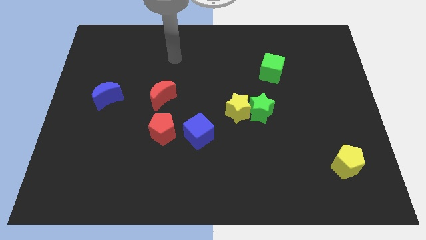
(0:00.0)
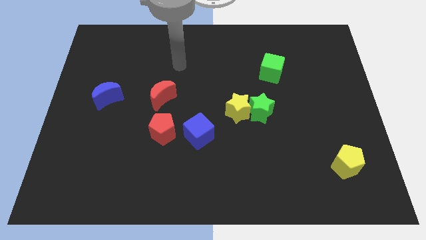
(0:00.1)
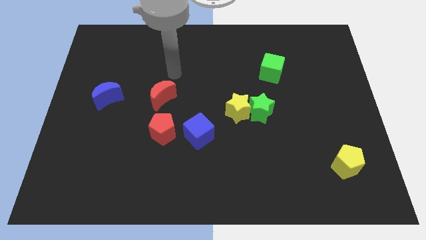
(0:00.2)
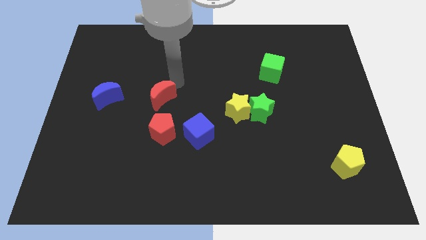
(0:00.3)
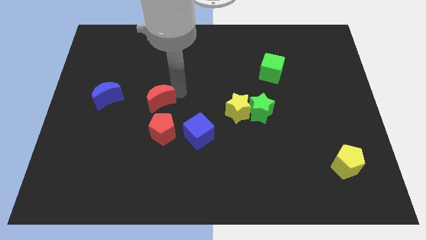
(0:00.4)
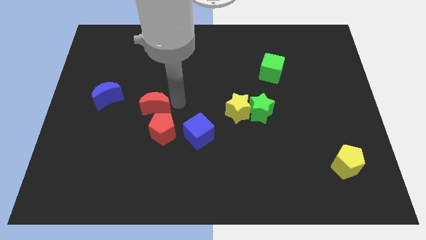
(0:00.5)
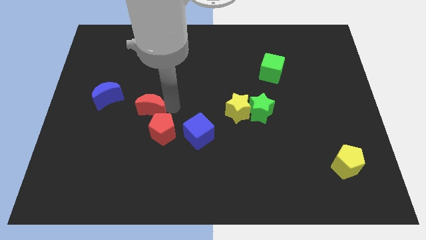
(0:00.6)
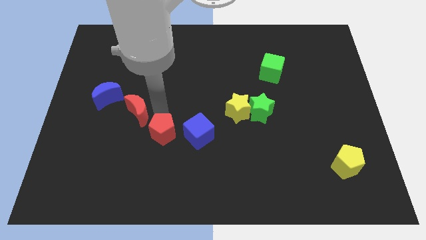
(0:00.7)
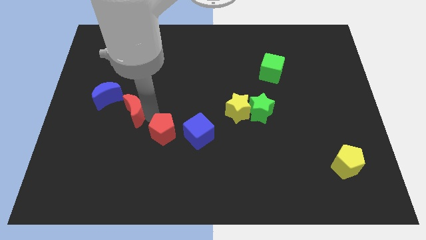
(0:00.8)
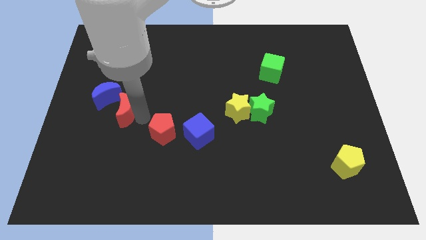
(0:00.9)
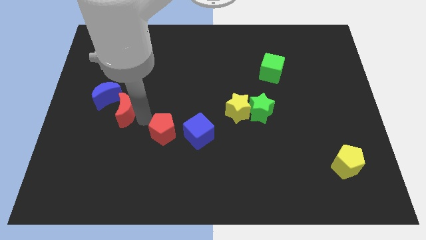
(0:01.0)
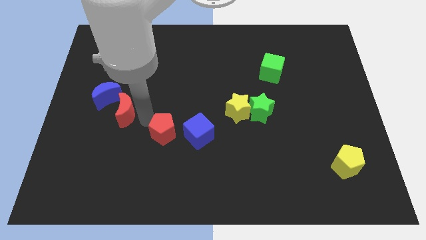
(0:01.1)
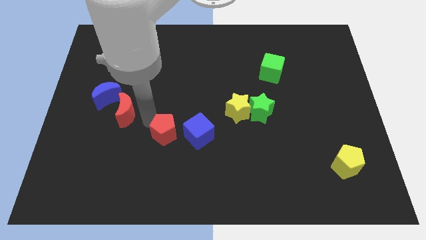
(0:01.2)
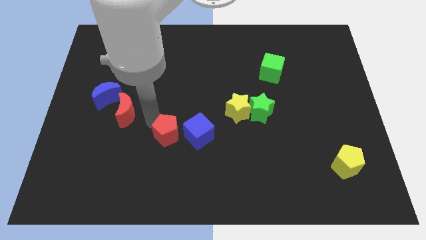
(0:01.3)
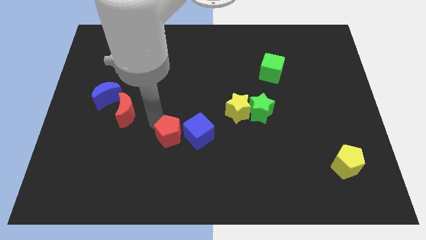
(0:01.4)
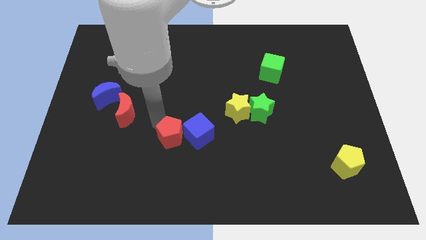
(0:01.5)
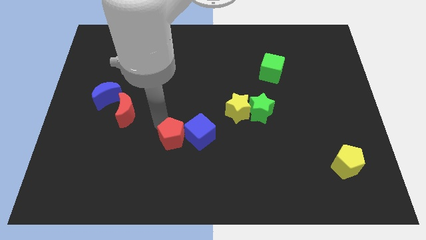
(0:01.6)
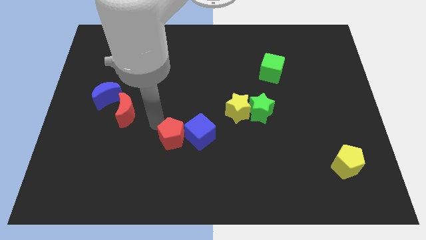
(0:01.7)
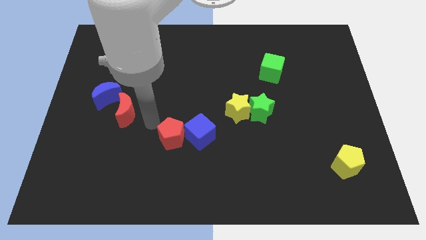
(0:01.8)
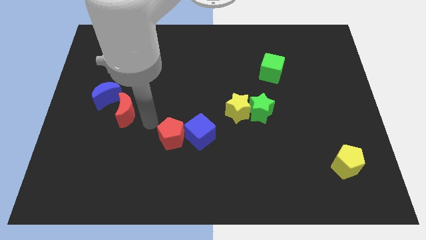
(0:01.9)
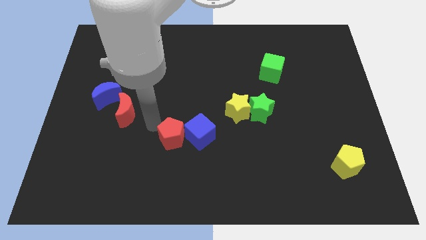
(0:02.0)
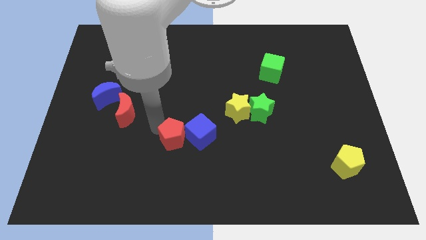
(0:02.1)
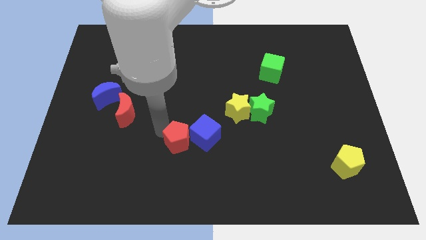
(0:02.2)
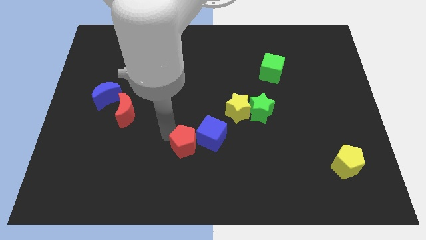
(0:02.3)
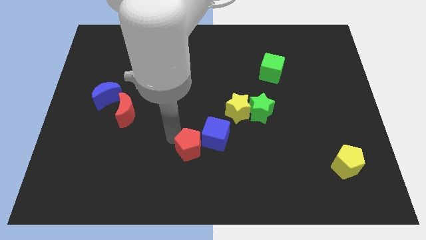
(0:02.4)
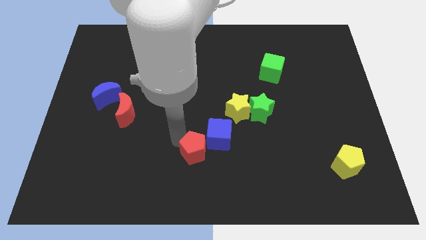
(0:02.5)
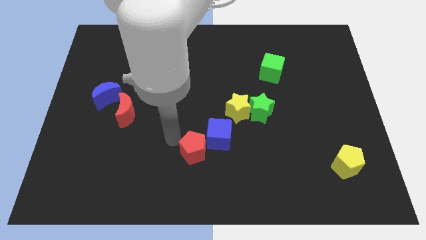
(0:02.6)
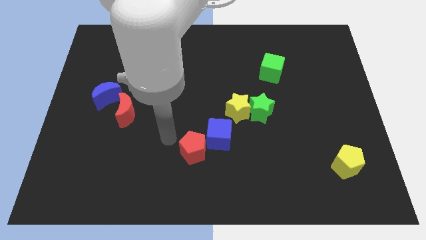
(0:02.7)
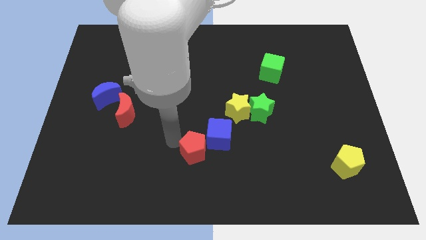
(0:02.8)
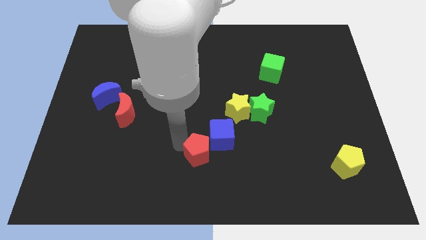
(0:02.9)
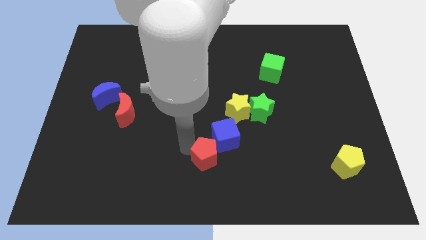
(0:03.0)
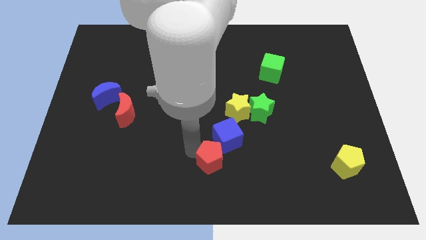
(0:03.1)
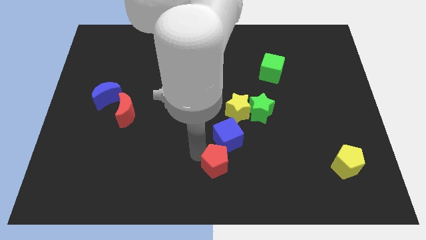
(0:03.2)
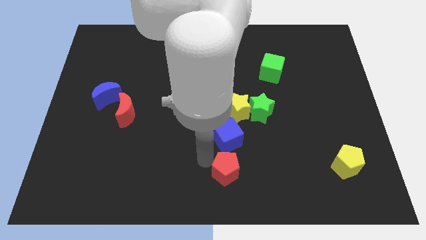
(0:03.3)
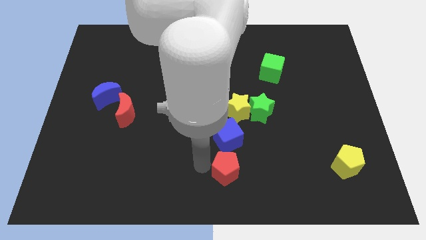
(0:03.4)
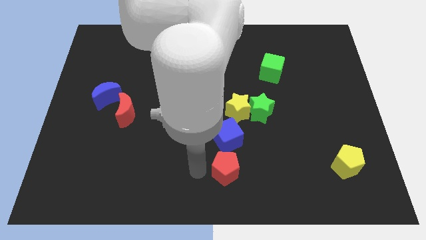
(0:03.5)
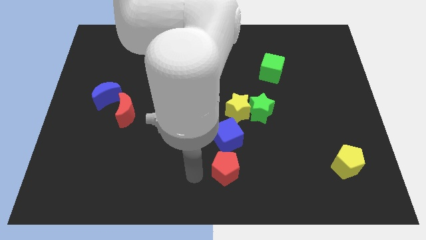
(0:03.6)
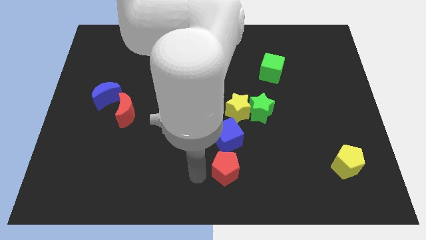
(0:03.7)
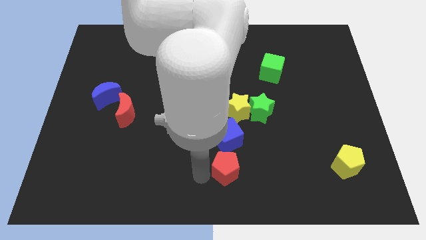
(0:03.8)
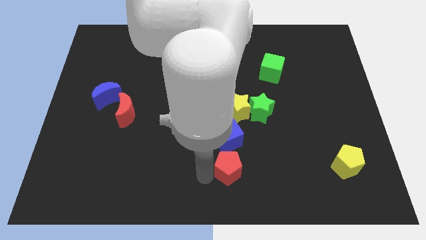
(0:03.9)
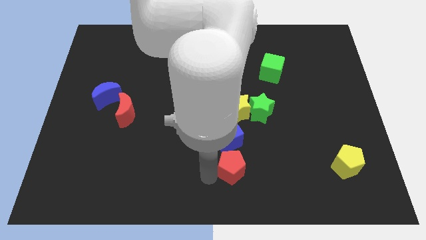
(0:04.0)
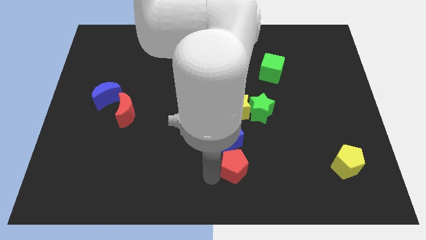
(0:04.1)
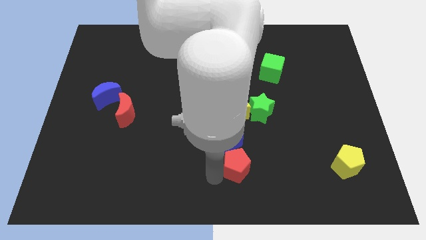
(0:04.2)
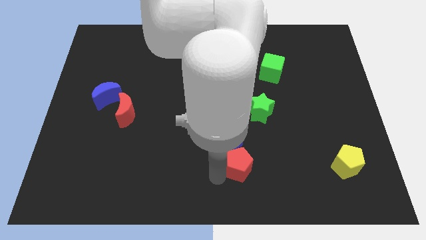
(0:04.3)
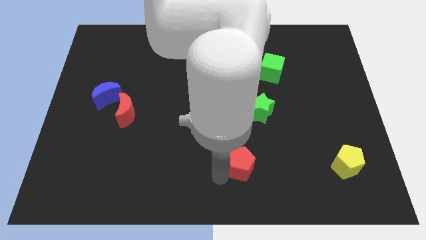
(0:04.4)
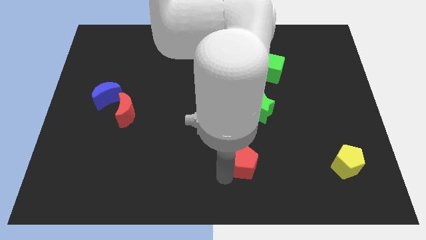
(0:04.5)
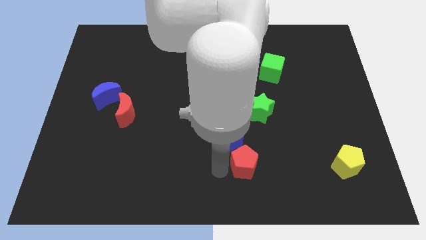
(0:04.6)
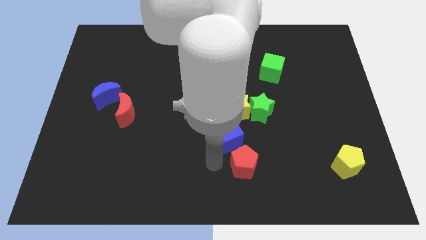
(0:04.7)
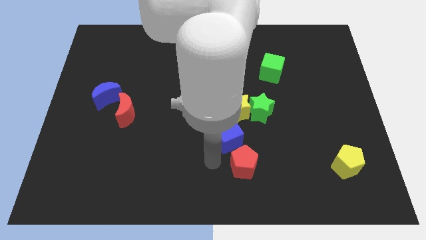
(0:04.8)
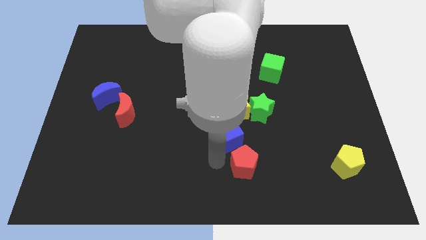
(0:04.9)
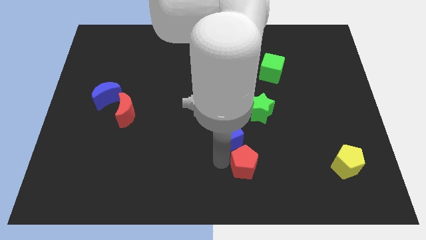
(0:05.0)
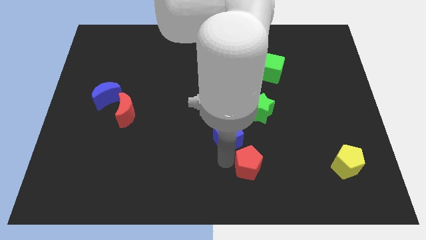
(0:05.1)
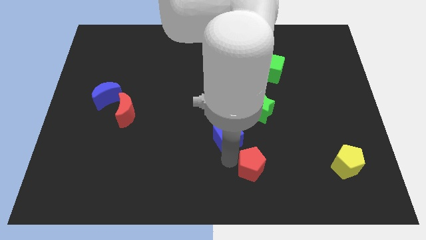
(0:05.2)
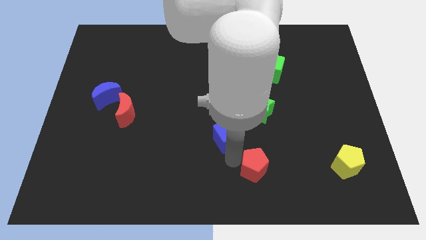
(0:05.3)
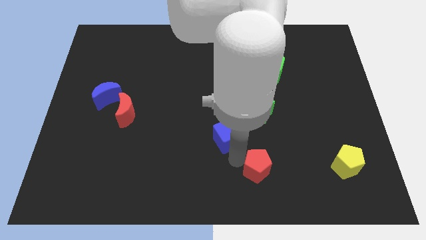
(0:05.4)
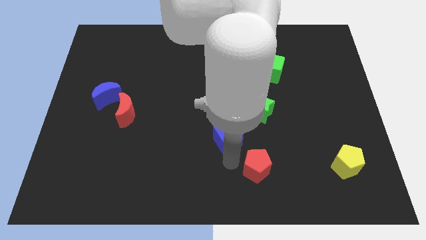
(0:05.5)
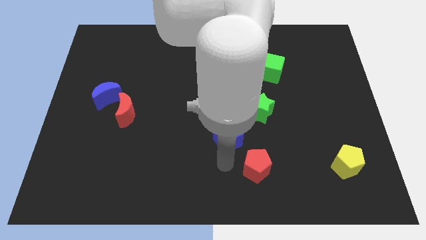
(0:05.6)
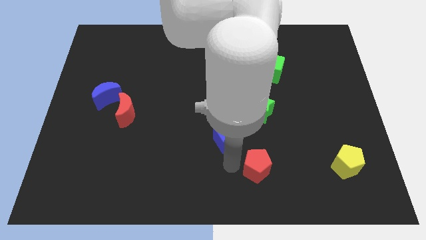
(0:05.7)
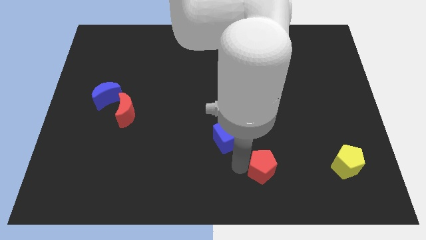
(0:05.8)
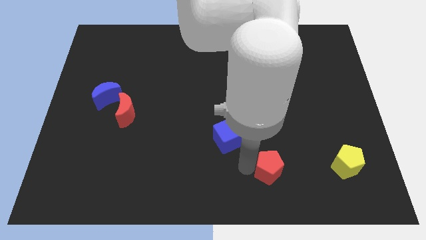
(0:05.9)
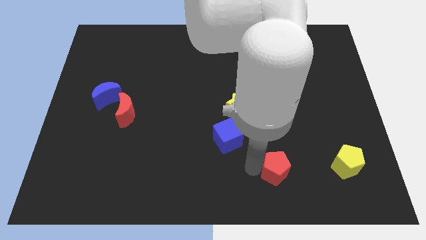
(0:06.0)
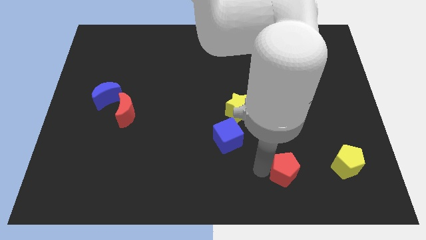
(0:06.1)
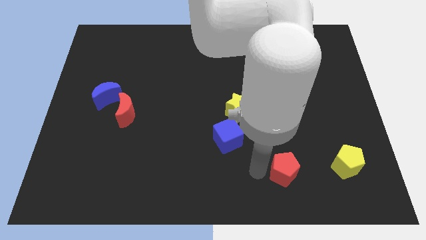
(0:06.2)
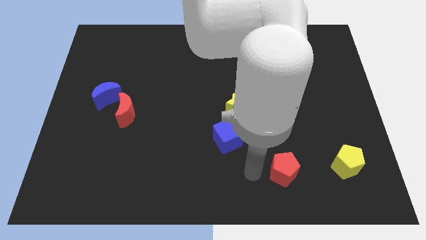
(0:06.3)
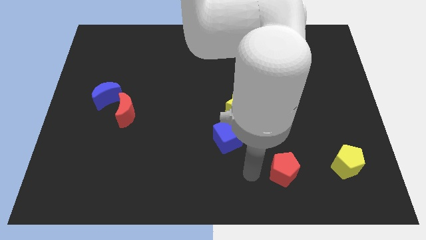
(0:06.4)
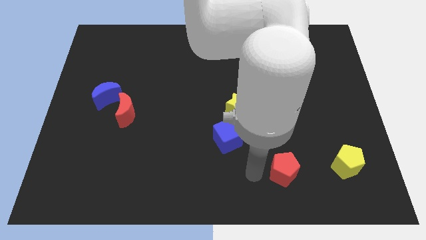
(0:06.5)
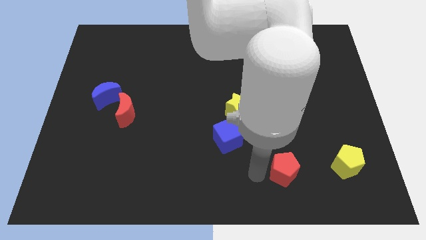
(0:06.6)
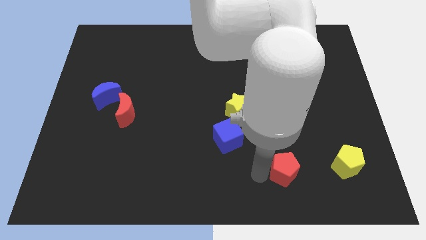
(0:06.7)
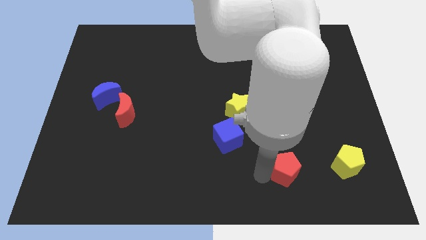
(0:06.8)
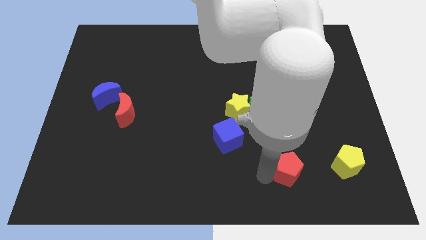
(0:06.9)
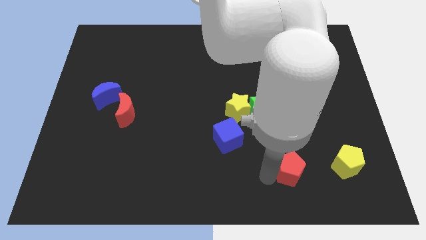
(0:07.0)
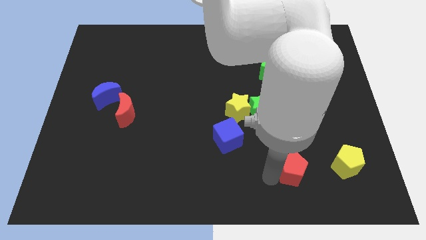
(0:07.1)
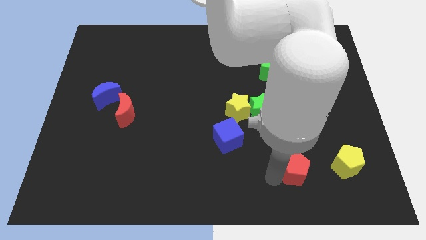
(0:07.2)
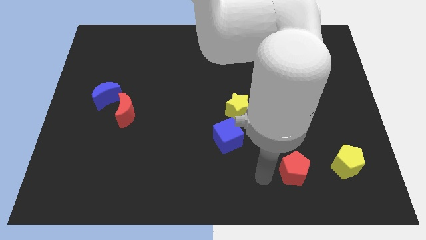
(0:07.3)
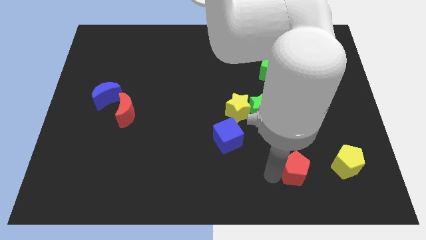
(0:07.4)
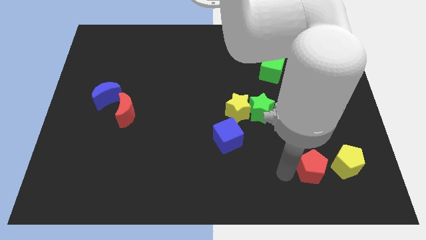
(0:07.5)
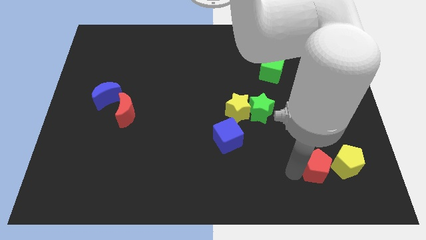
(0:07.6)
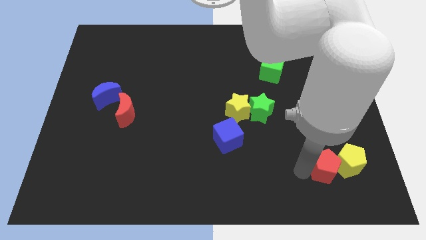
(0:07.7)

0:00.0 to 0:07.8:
push the red pentagon close to the yellow pentagon
